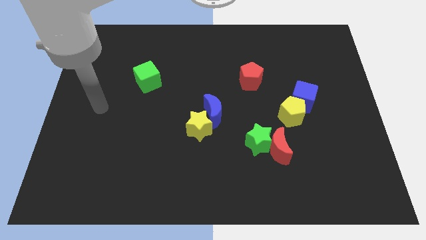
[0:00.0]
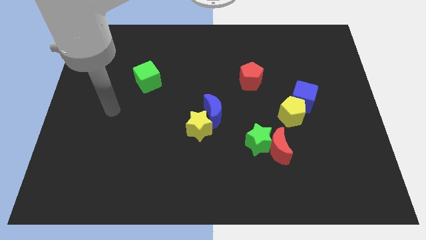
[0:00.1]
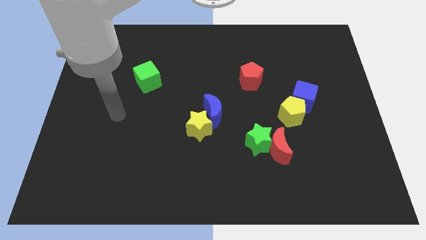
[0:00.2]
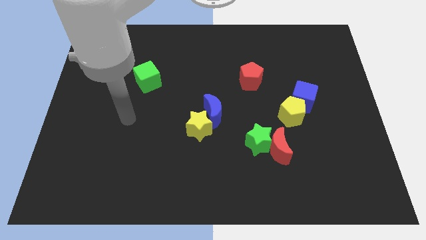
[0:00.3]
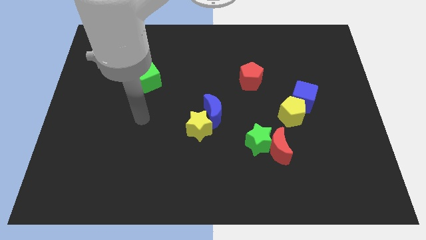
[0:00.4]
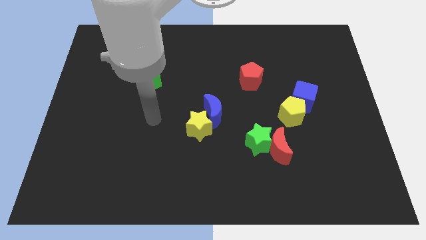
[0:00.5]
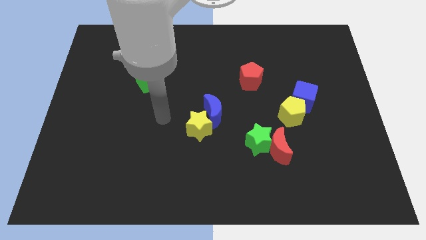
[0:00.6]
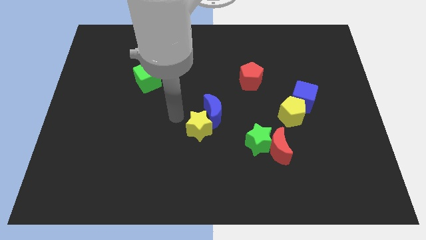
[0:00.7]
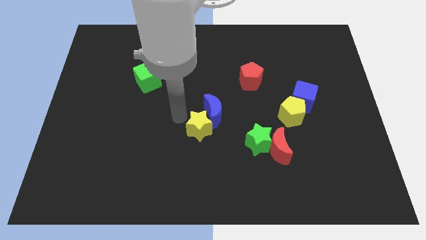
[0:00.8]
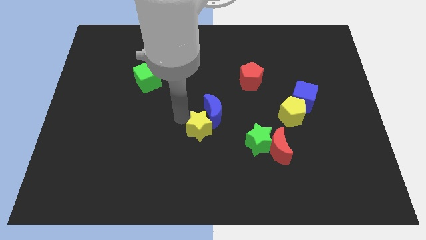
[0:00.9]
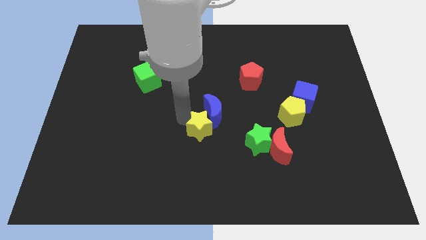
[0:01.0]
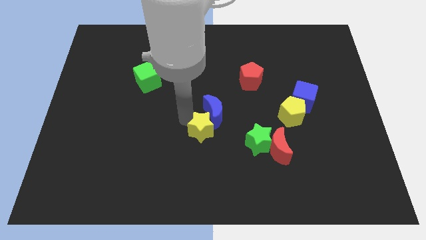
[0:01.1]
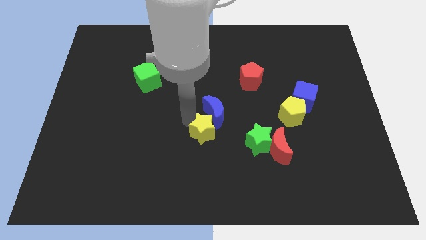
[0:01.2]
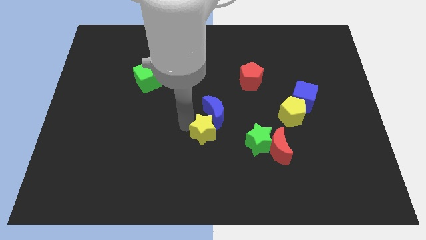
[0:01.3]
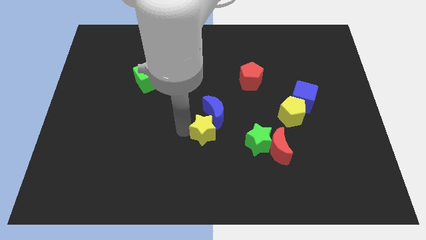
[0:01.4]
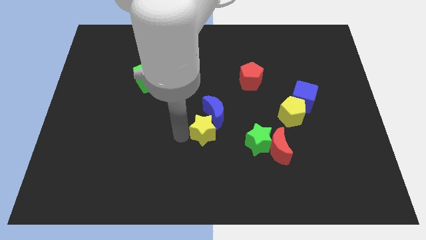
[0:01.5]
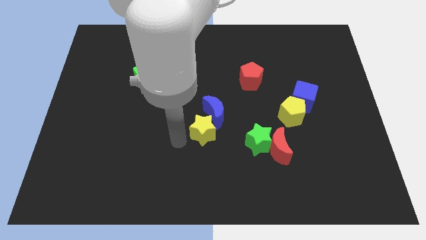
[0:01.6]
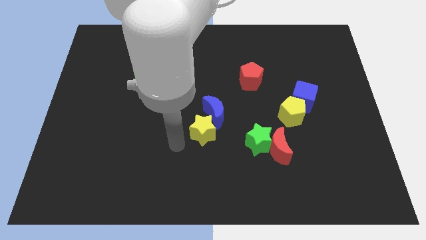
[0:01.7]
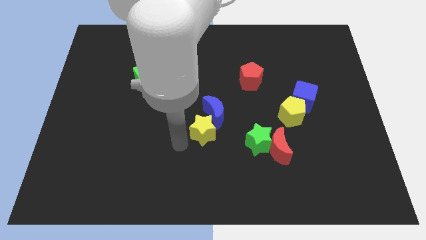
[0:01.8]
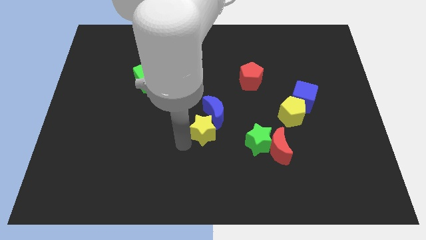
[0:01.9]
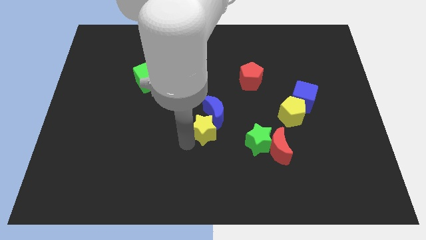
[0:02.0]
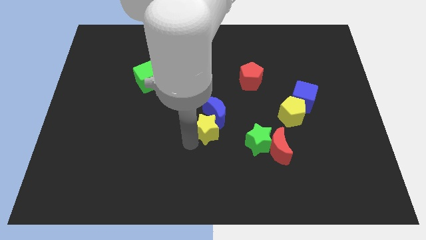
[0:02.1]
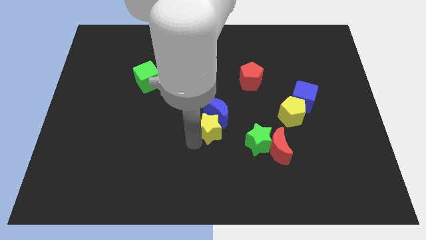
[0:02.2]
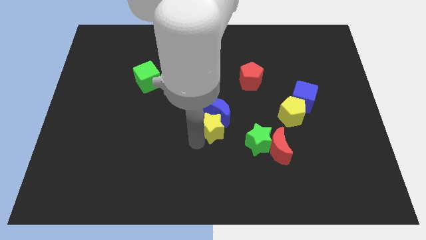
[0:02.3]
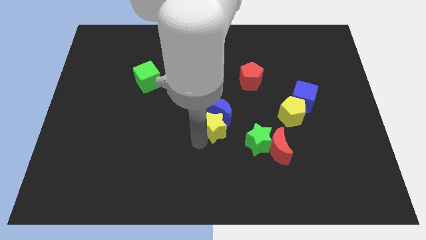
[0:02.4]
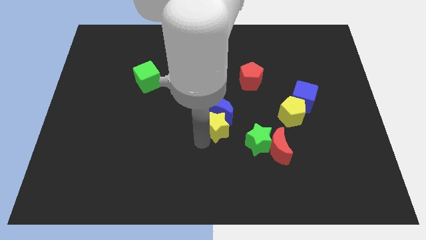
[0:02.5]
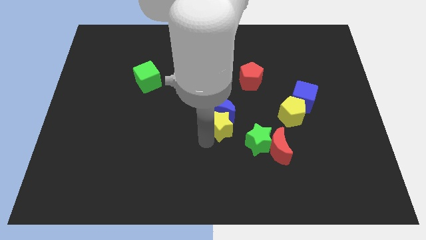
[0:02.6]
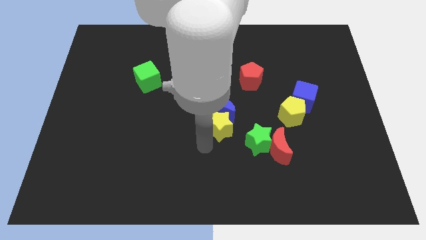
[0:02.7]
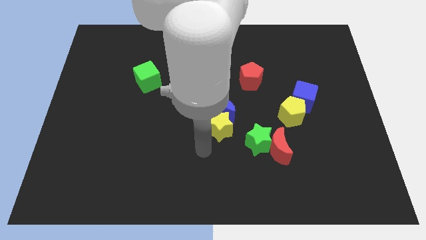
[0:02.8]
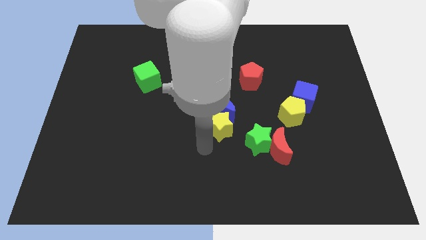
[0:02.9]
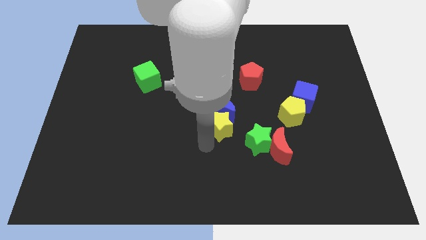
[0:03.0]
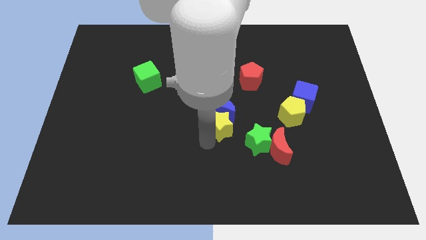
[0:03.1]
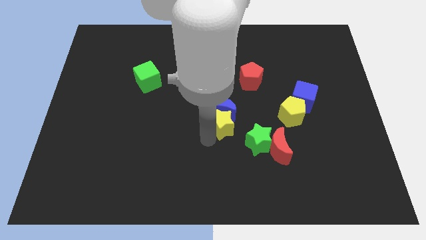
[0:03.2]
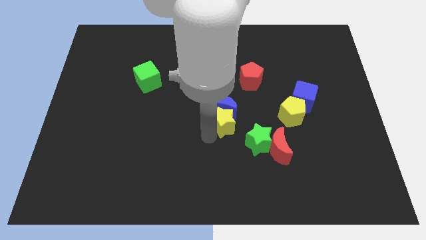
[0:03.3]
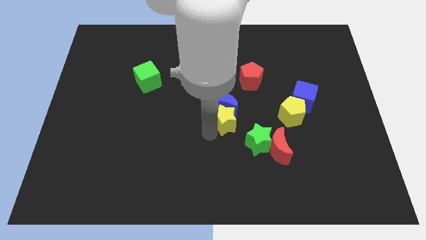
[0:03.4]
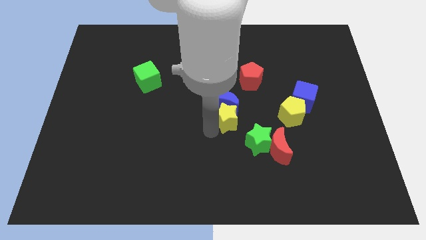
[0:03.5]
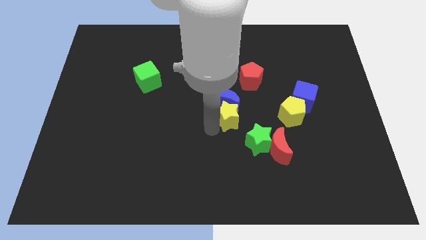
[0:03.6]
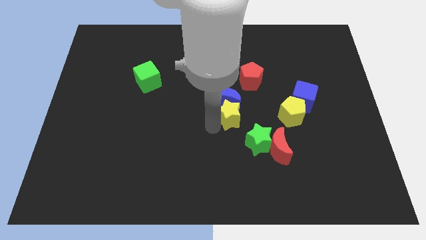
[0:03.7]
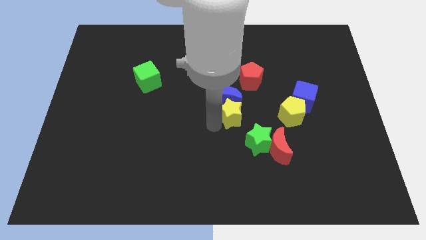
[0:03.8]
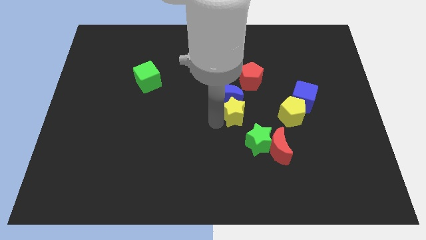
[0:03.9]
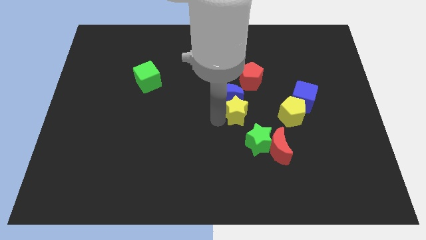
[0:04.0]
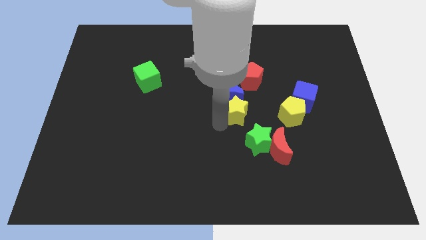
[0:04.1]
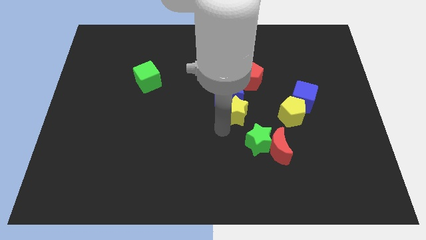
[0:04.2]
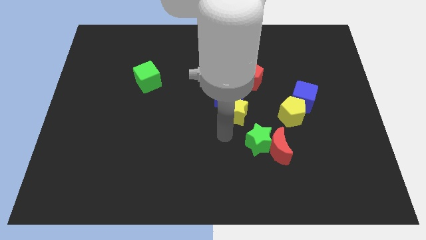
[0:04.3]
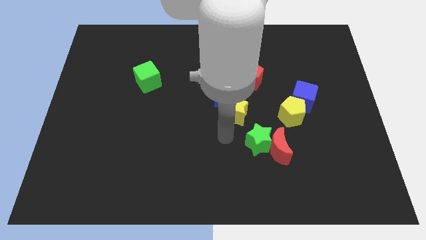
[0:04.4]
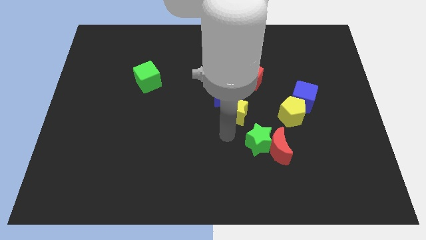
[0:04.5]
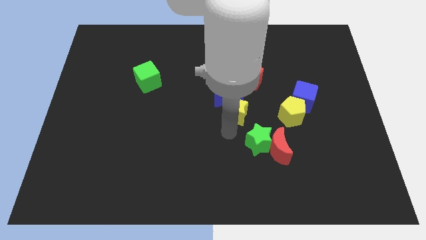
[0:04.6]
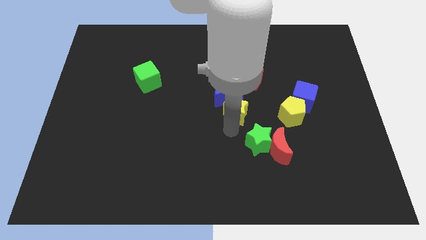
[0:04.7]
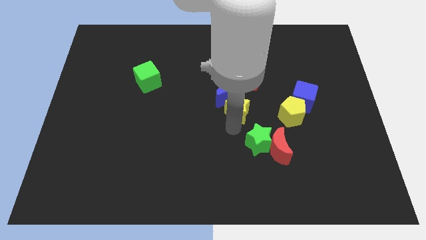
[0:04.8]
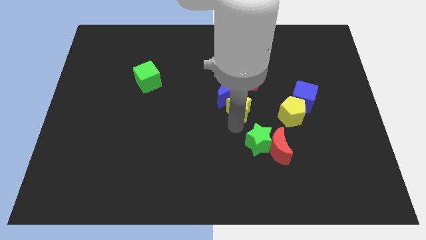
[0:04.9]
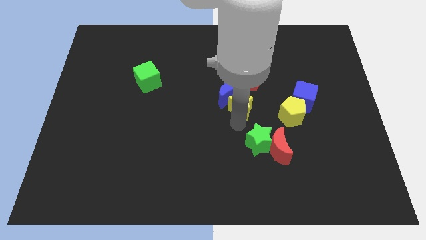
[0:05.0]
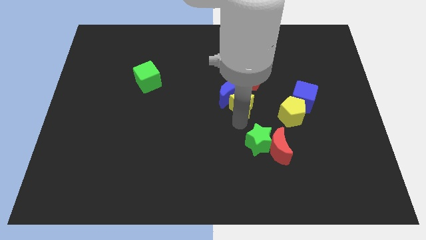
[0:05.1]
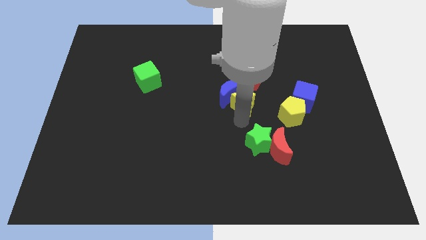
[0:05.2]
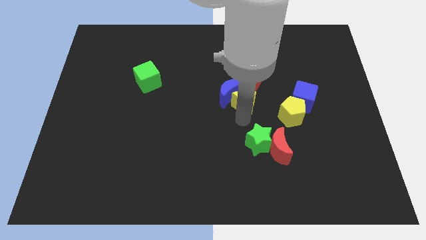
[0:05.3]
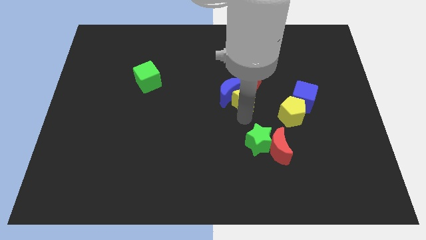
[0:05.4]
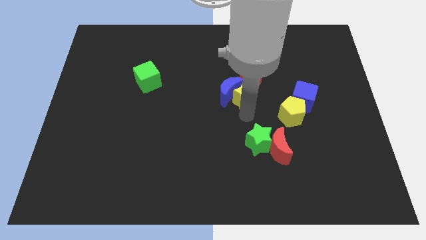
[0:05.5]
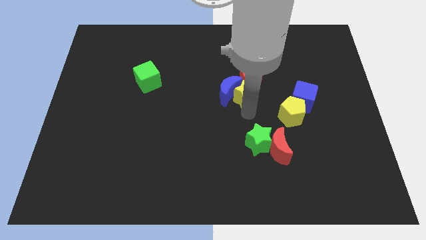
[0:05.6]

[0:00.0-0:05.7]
move the yellow star towards the red pentagon
